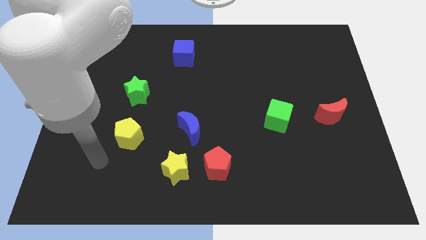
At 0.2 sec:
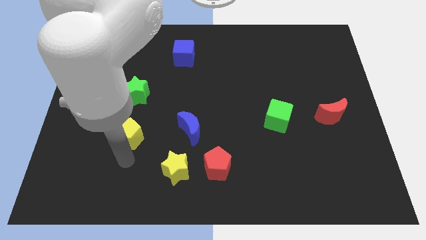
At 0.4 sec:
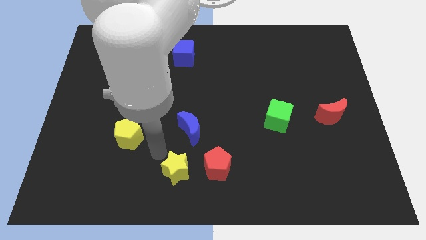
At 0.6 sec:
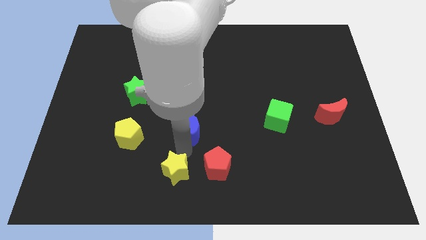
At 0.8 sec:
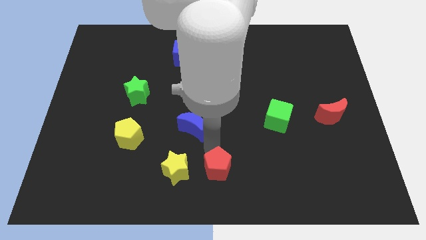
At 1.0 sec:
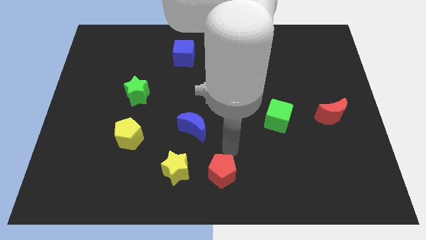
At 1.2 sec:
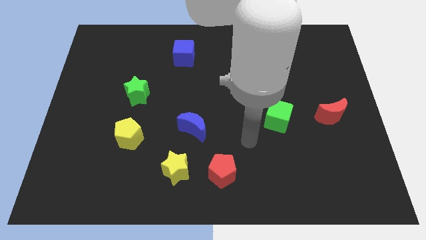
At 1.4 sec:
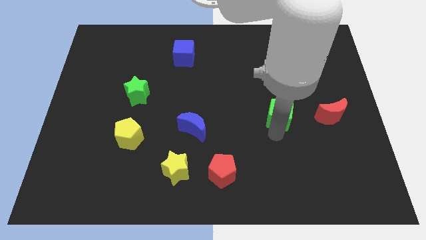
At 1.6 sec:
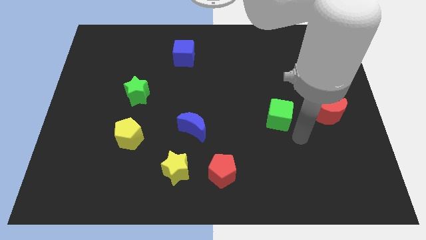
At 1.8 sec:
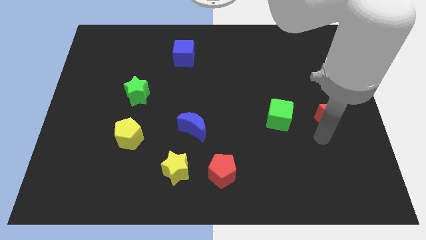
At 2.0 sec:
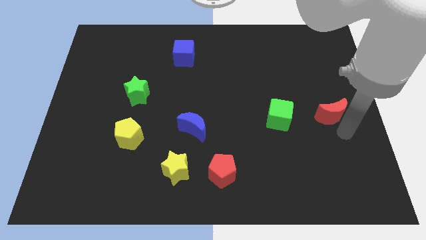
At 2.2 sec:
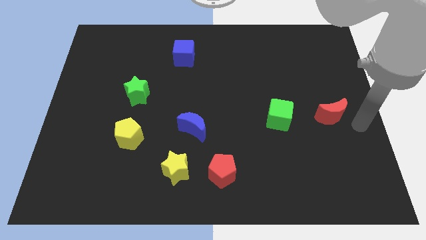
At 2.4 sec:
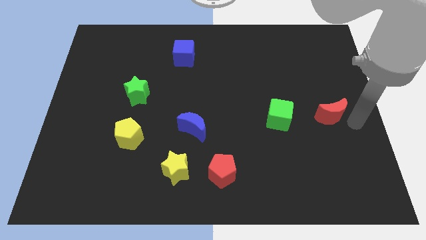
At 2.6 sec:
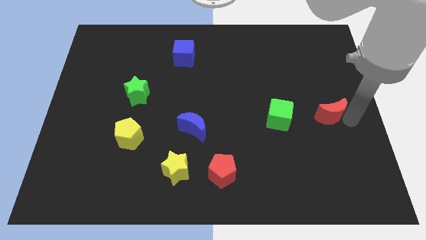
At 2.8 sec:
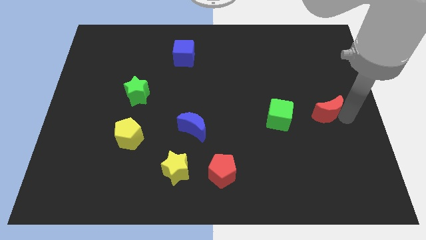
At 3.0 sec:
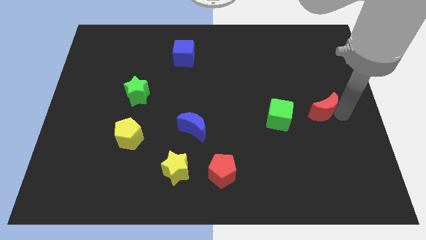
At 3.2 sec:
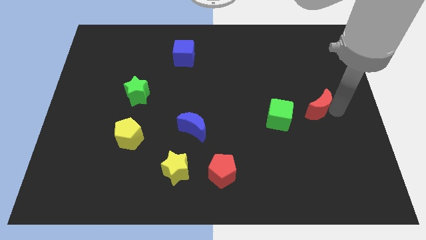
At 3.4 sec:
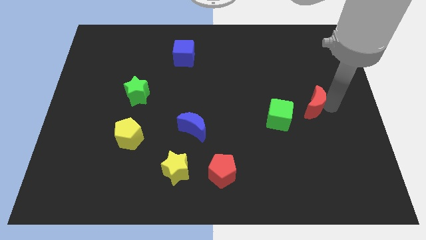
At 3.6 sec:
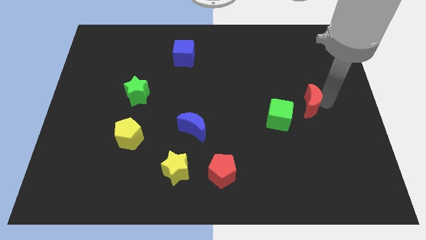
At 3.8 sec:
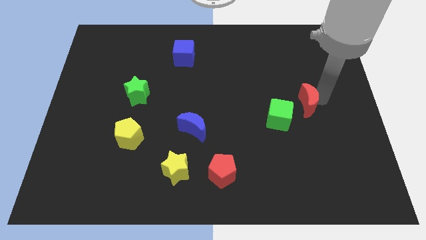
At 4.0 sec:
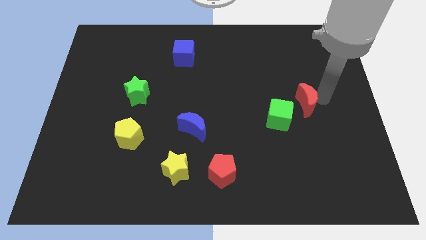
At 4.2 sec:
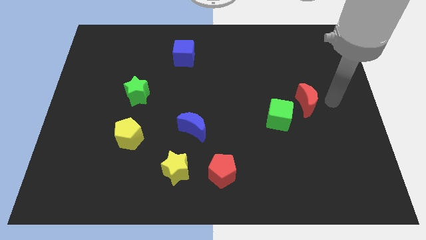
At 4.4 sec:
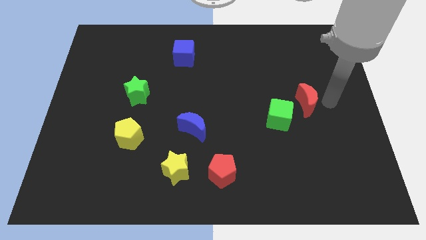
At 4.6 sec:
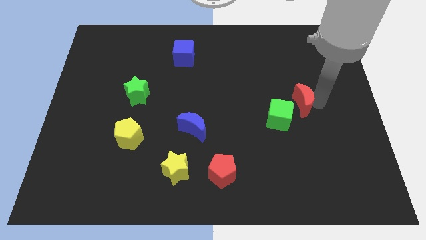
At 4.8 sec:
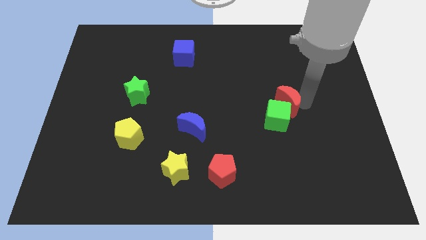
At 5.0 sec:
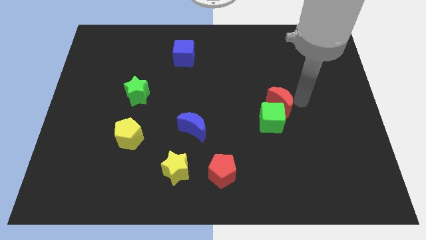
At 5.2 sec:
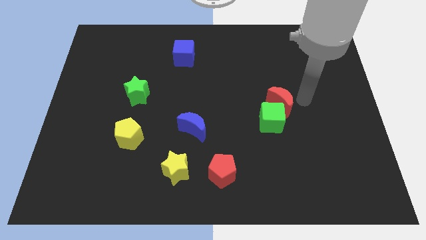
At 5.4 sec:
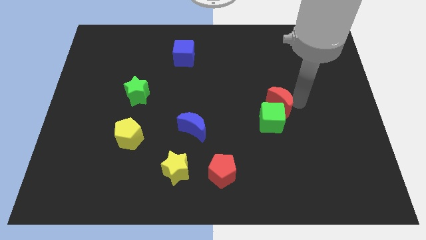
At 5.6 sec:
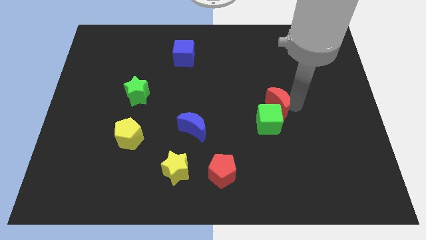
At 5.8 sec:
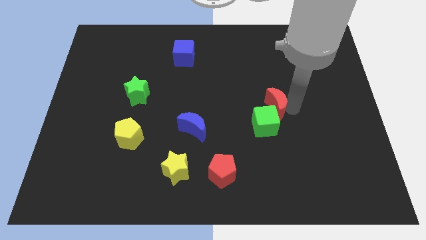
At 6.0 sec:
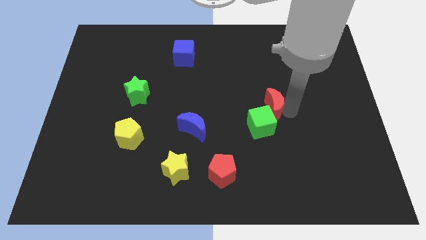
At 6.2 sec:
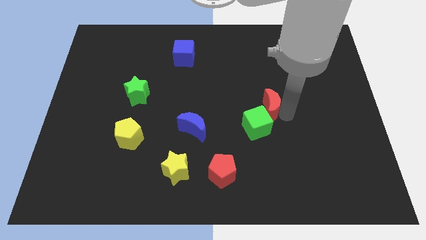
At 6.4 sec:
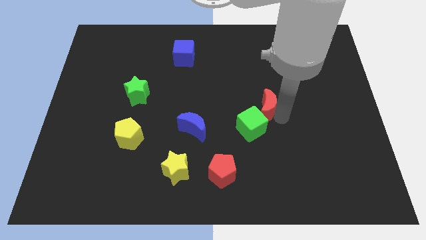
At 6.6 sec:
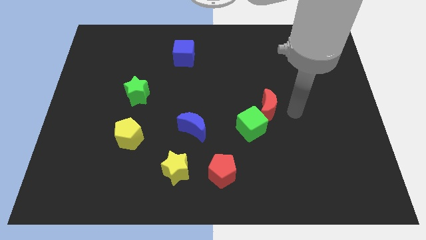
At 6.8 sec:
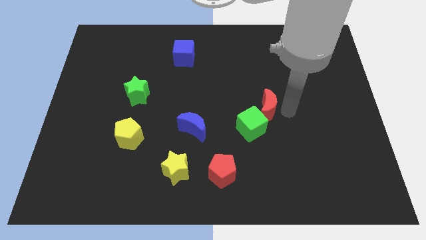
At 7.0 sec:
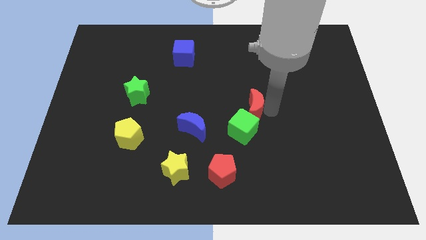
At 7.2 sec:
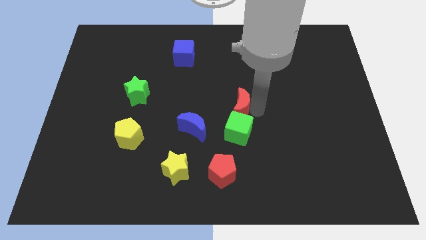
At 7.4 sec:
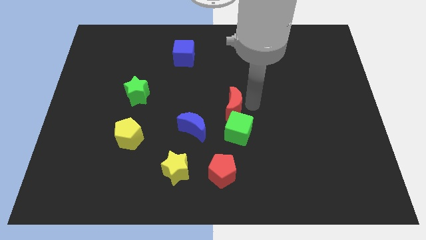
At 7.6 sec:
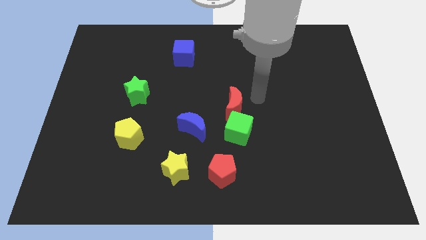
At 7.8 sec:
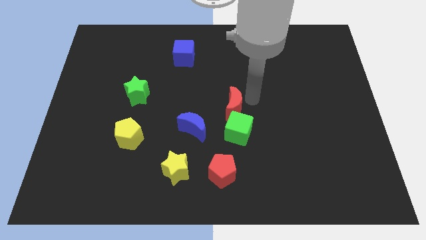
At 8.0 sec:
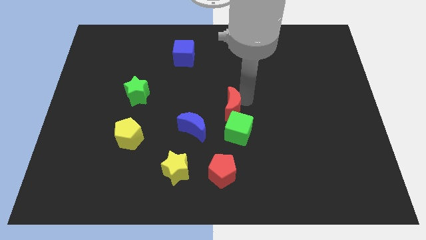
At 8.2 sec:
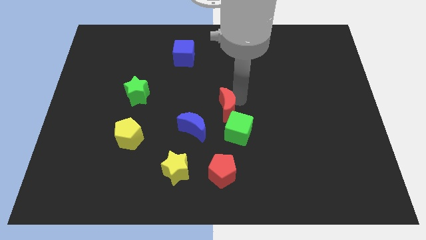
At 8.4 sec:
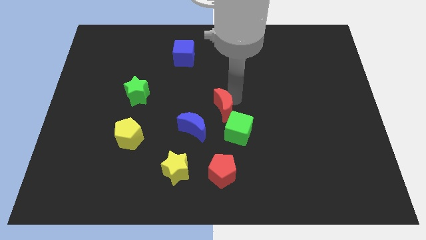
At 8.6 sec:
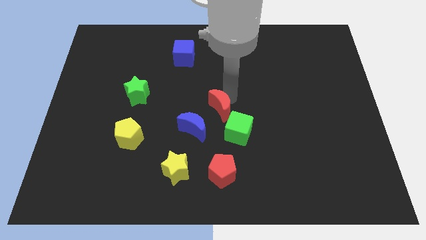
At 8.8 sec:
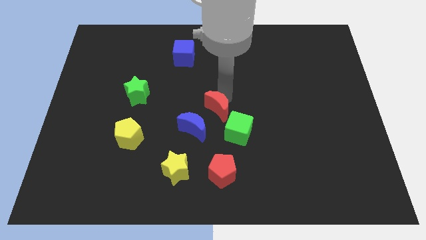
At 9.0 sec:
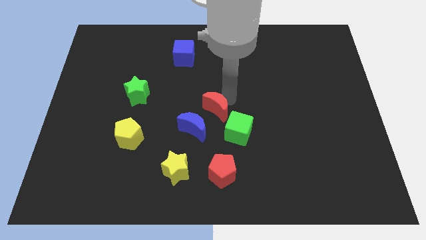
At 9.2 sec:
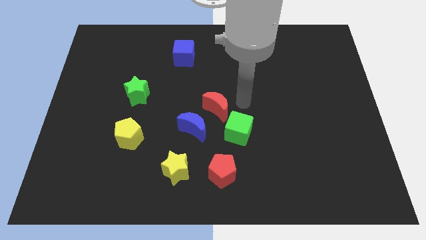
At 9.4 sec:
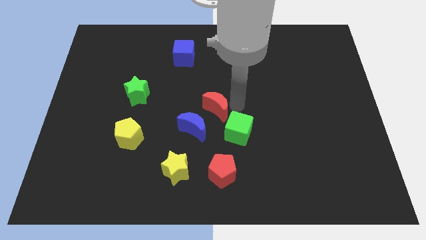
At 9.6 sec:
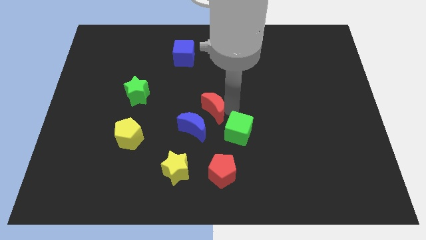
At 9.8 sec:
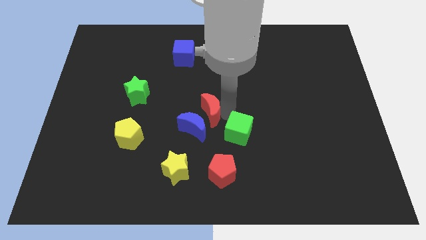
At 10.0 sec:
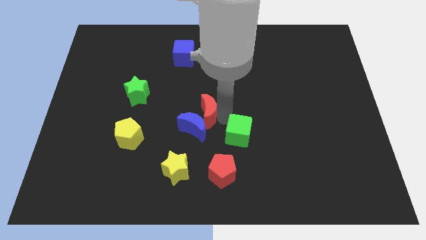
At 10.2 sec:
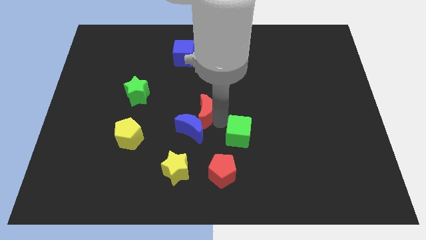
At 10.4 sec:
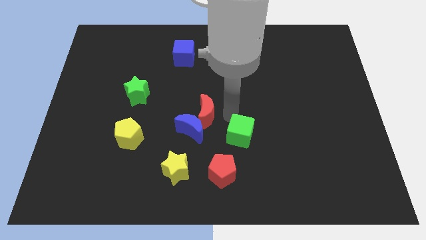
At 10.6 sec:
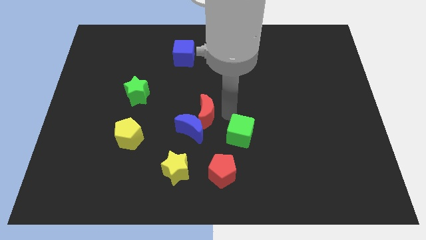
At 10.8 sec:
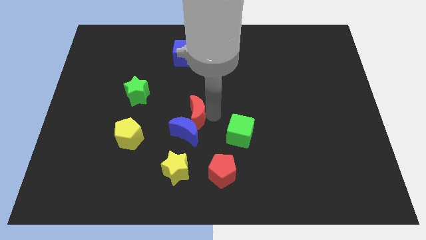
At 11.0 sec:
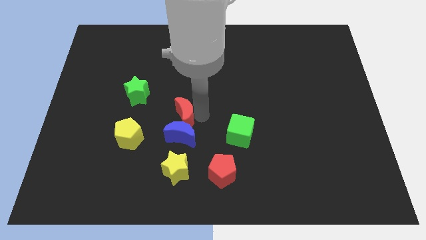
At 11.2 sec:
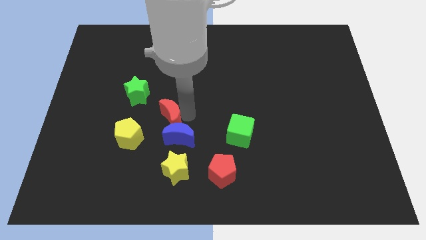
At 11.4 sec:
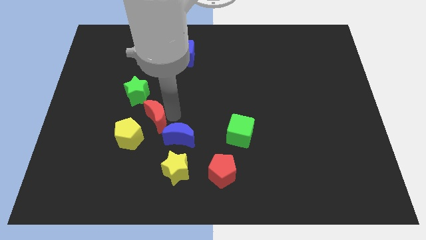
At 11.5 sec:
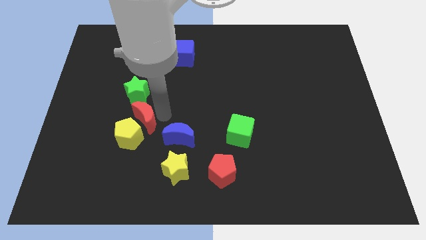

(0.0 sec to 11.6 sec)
slide the red moon close to the yellow pentagon

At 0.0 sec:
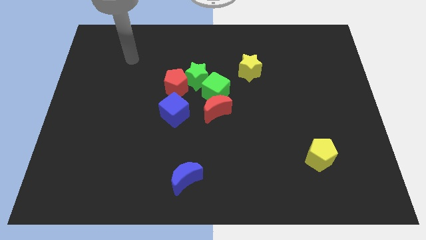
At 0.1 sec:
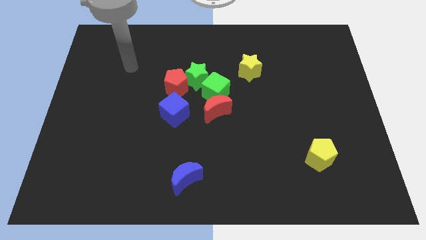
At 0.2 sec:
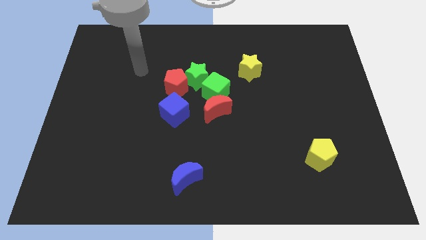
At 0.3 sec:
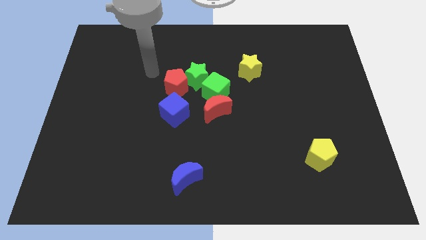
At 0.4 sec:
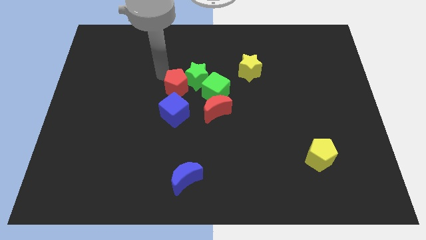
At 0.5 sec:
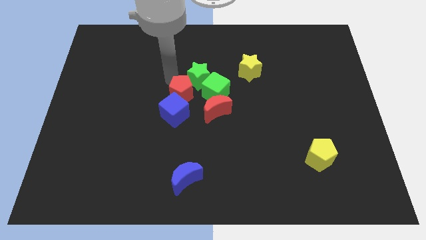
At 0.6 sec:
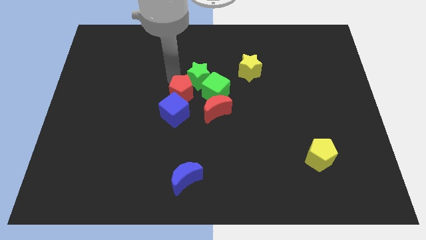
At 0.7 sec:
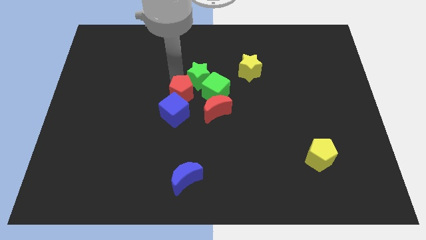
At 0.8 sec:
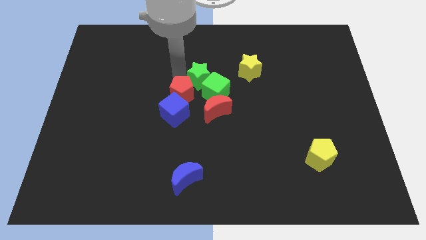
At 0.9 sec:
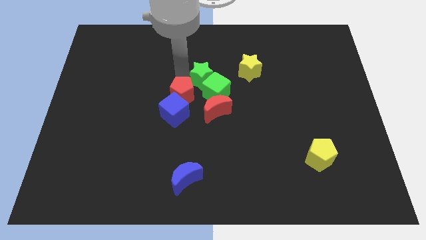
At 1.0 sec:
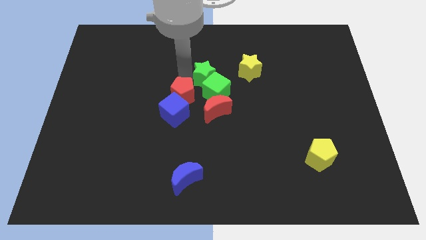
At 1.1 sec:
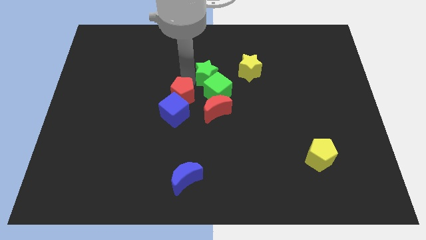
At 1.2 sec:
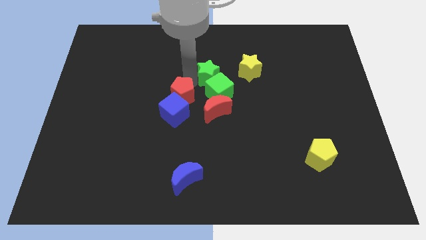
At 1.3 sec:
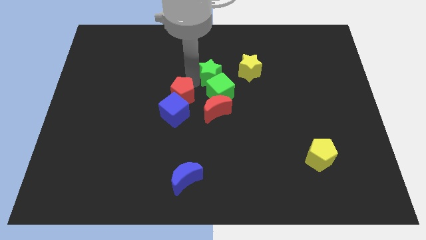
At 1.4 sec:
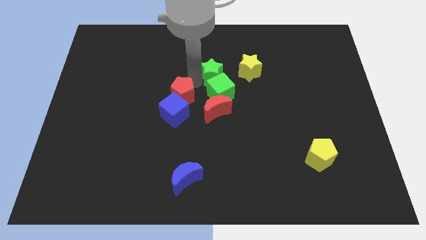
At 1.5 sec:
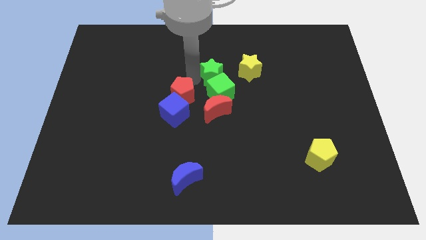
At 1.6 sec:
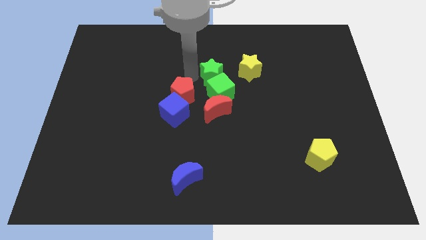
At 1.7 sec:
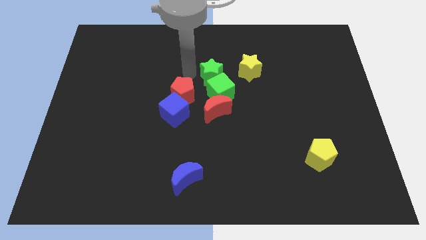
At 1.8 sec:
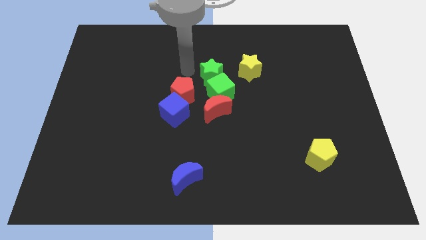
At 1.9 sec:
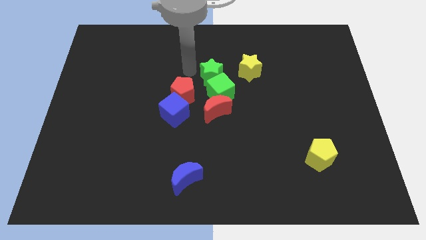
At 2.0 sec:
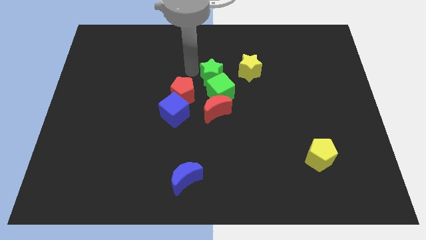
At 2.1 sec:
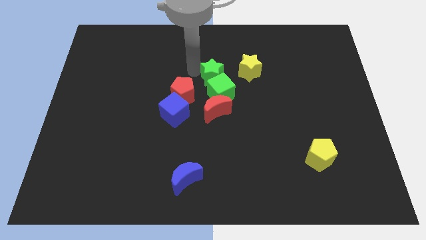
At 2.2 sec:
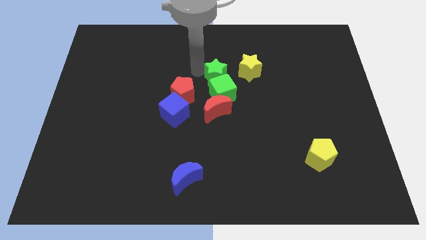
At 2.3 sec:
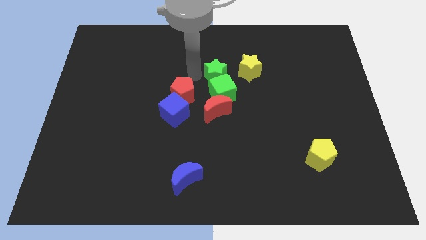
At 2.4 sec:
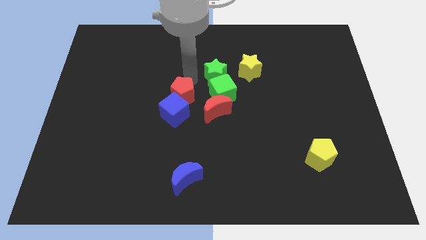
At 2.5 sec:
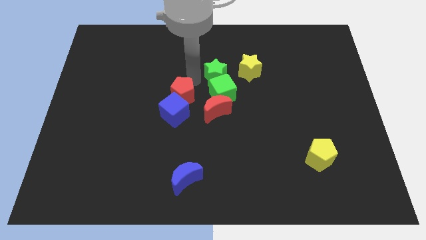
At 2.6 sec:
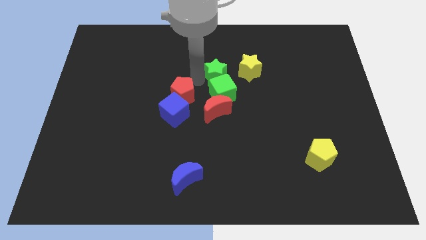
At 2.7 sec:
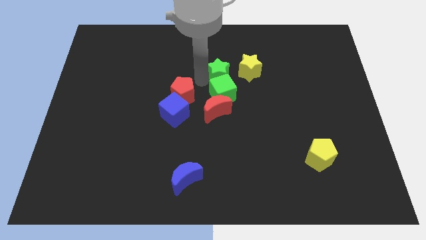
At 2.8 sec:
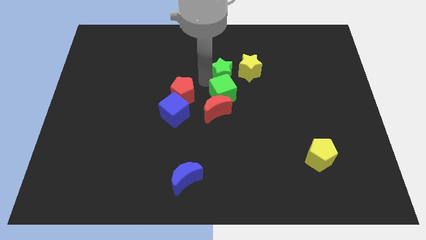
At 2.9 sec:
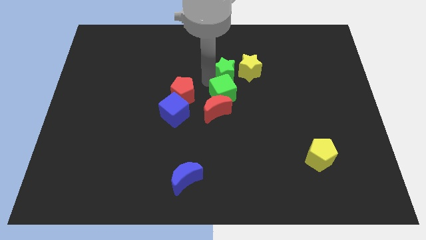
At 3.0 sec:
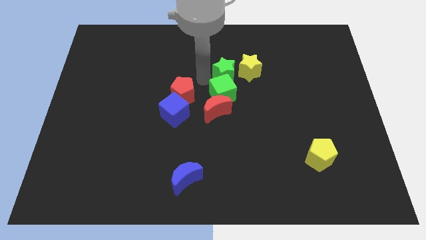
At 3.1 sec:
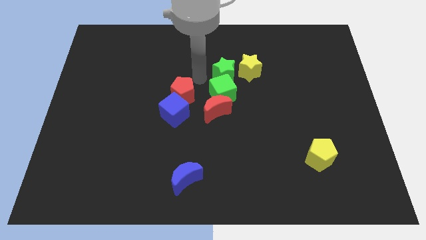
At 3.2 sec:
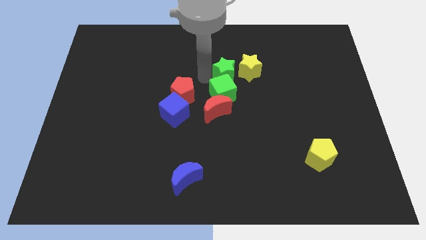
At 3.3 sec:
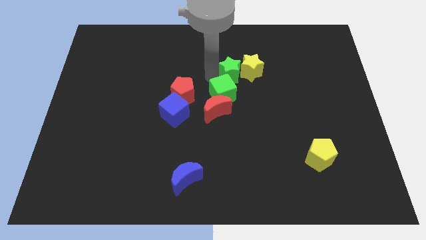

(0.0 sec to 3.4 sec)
slide the green star next to the yellow star
